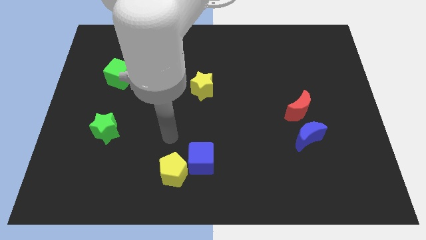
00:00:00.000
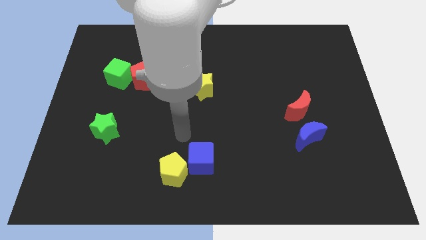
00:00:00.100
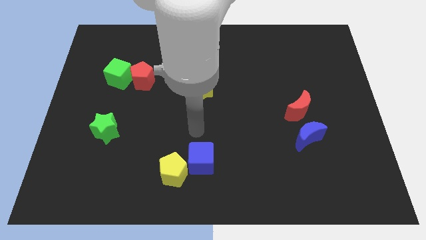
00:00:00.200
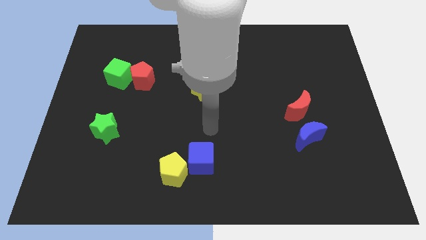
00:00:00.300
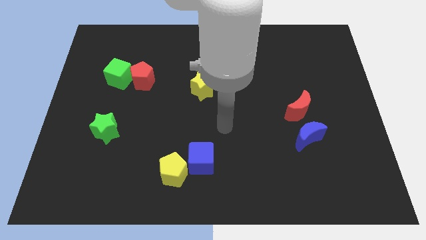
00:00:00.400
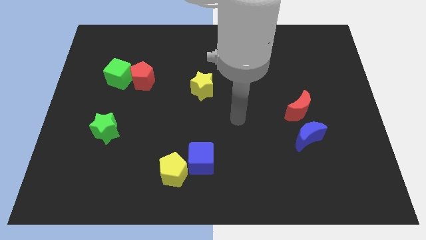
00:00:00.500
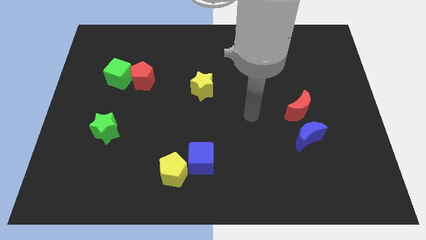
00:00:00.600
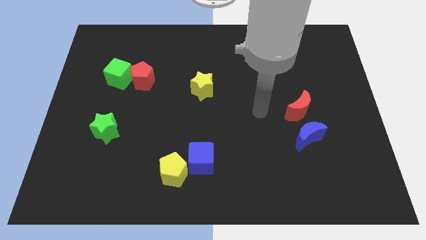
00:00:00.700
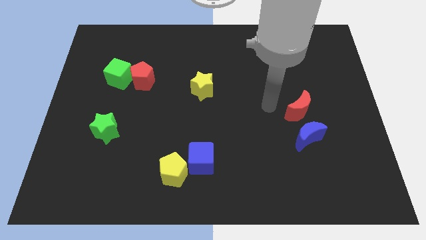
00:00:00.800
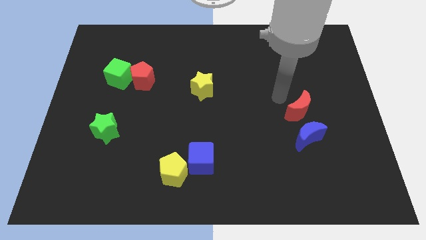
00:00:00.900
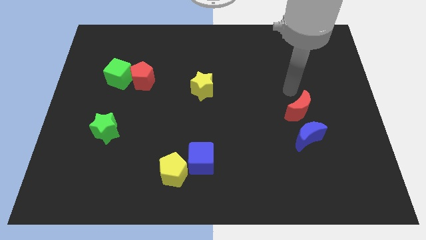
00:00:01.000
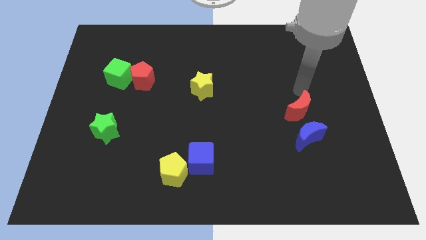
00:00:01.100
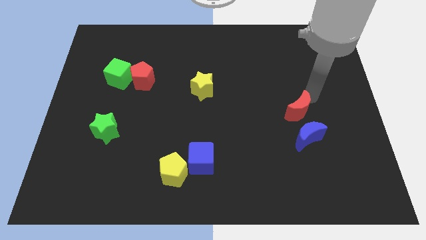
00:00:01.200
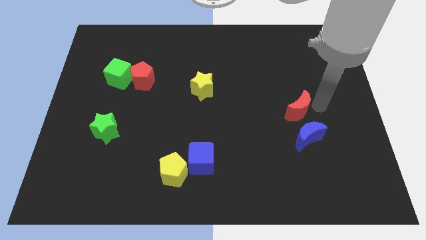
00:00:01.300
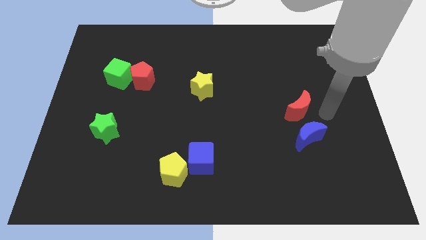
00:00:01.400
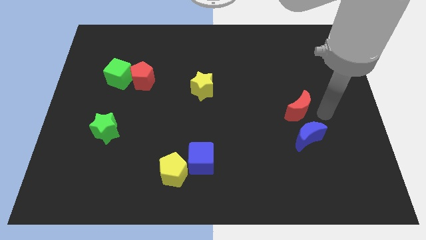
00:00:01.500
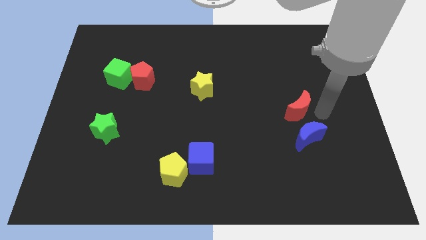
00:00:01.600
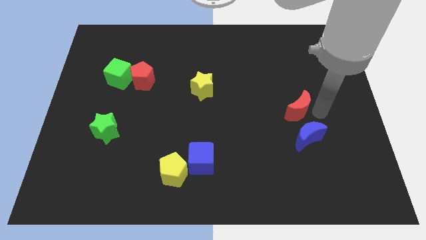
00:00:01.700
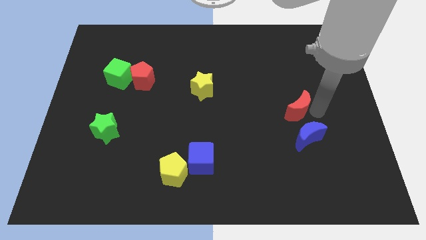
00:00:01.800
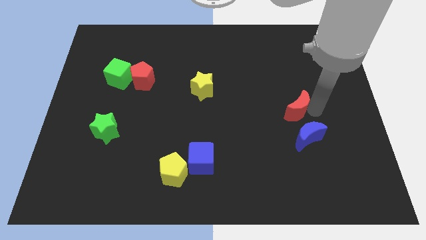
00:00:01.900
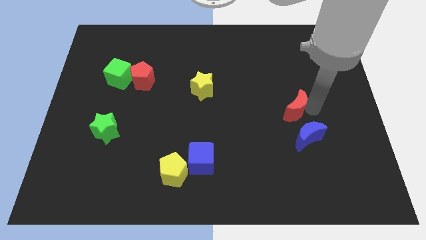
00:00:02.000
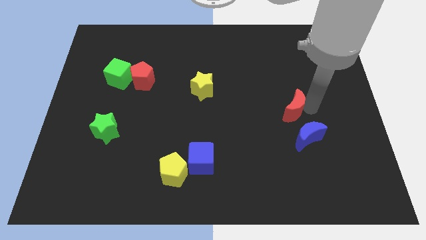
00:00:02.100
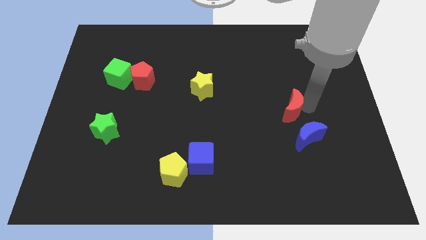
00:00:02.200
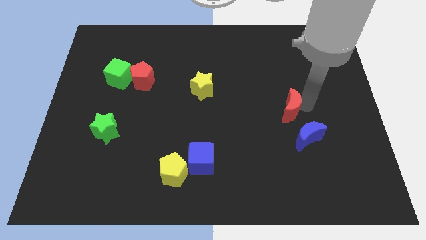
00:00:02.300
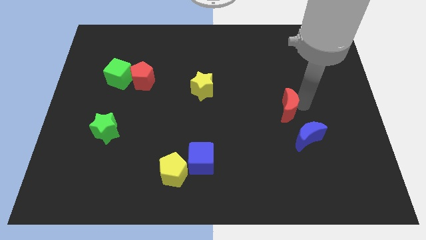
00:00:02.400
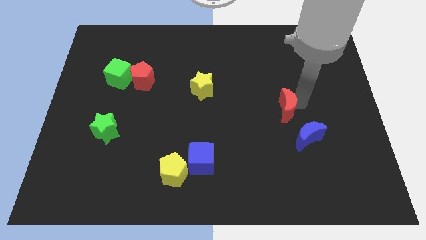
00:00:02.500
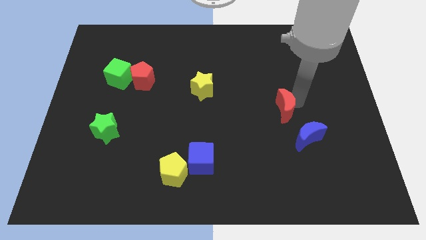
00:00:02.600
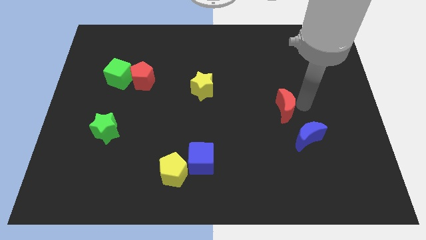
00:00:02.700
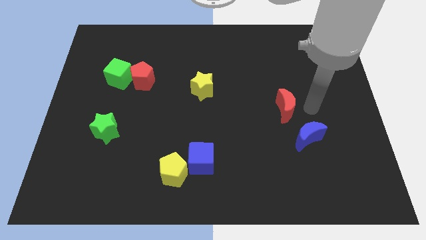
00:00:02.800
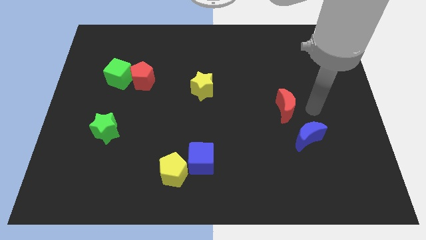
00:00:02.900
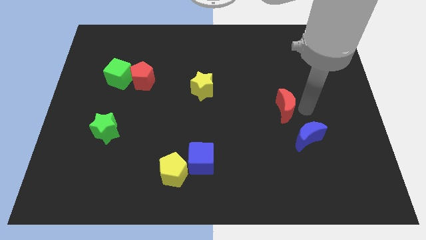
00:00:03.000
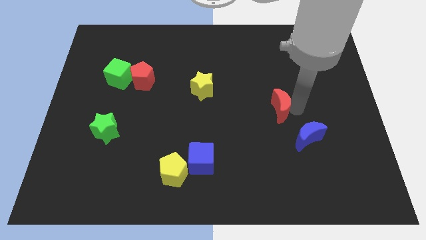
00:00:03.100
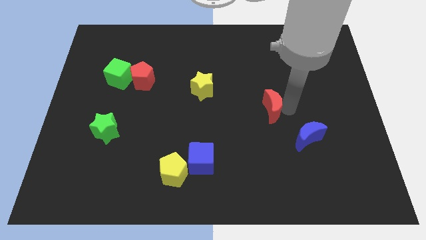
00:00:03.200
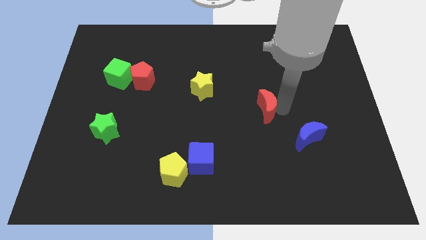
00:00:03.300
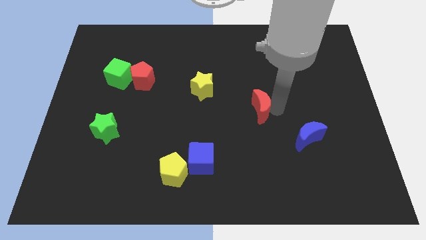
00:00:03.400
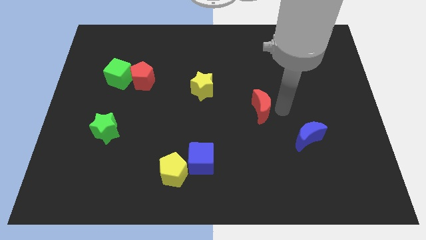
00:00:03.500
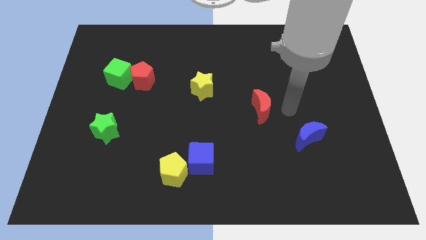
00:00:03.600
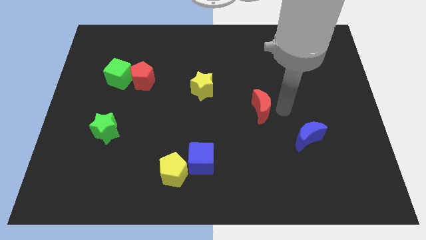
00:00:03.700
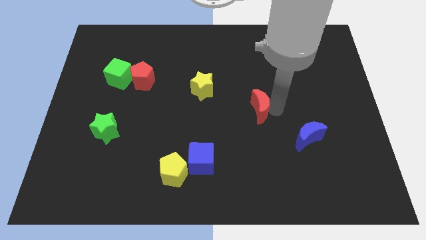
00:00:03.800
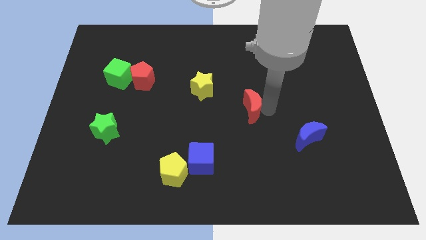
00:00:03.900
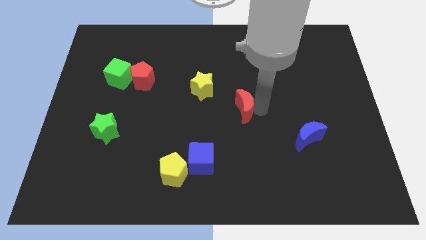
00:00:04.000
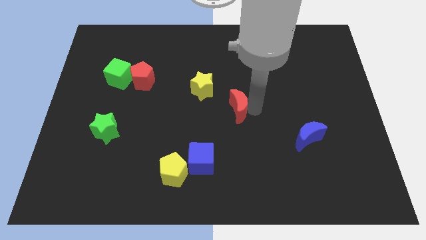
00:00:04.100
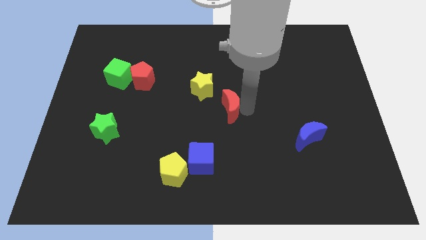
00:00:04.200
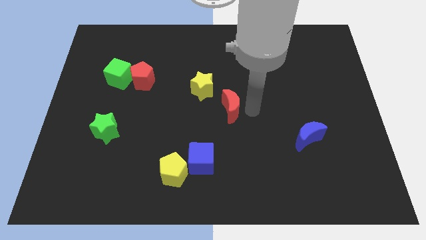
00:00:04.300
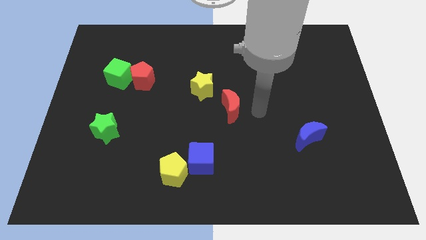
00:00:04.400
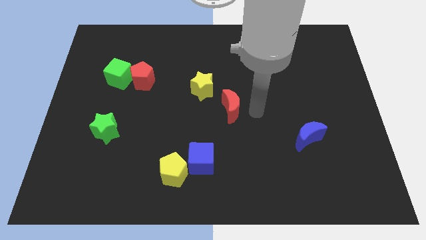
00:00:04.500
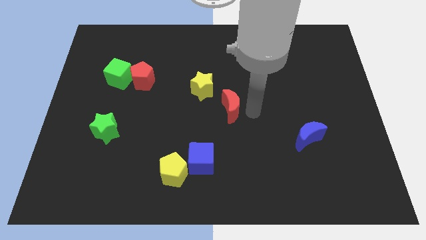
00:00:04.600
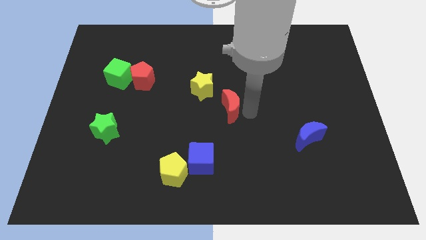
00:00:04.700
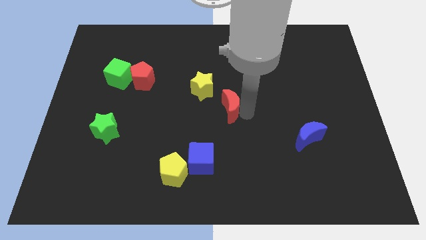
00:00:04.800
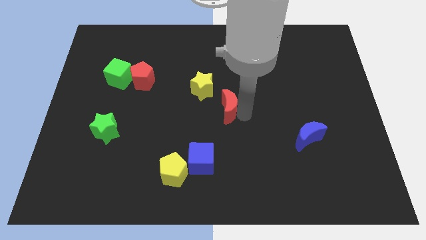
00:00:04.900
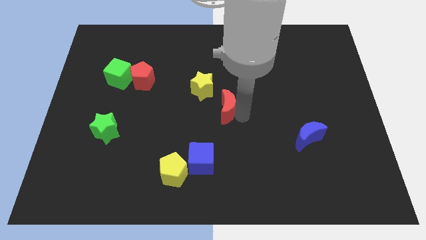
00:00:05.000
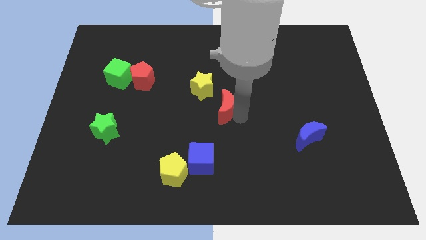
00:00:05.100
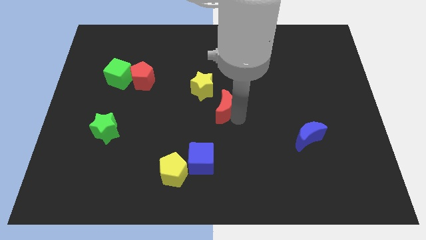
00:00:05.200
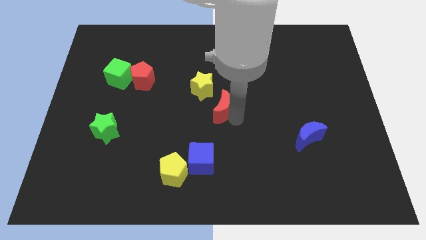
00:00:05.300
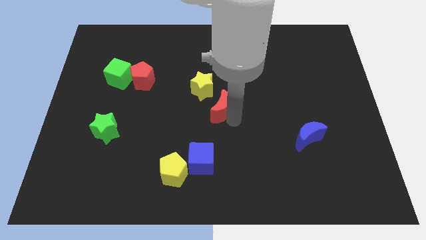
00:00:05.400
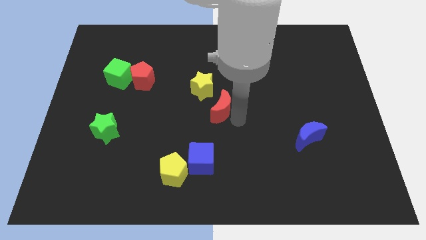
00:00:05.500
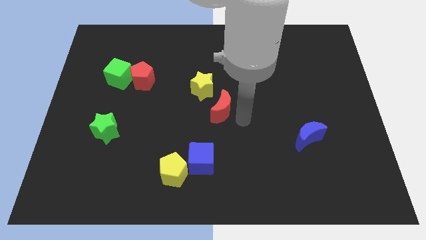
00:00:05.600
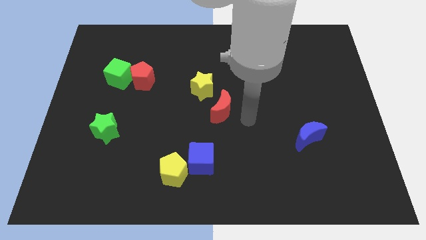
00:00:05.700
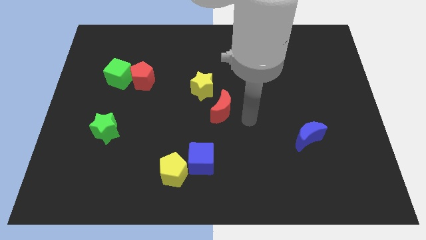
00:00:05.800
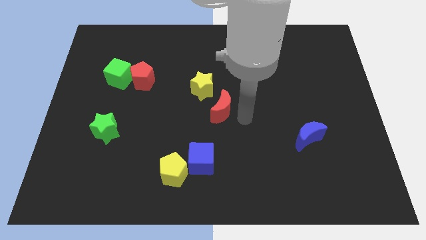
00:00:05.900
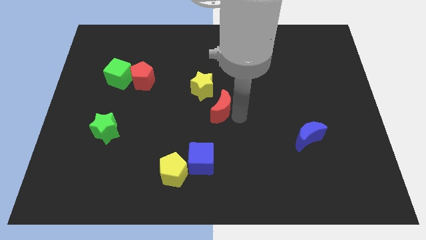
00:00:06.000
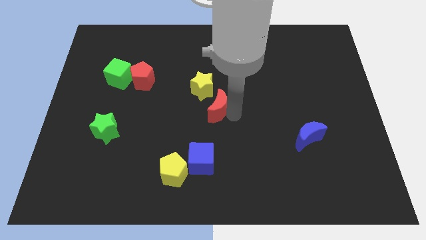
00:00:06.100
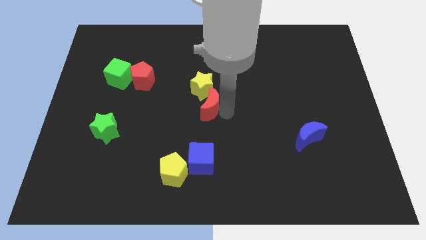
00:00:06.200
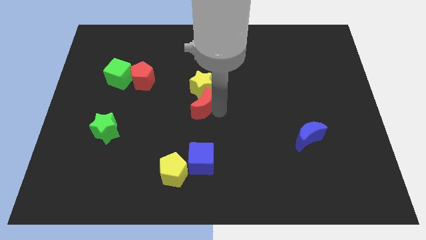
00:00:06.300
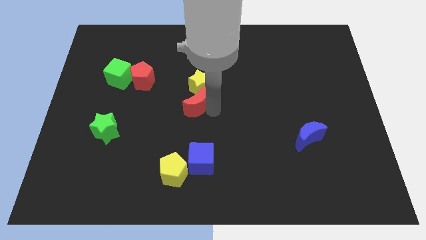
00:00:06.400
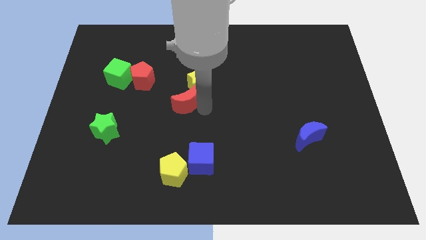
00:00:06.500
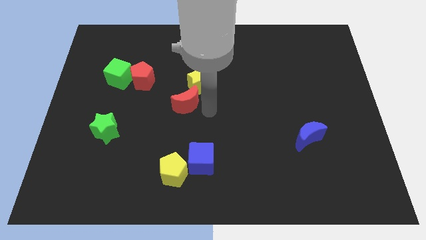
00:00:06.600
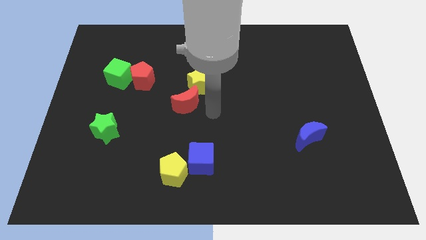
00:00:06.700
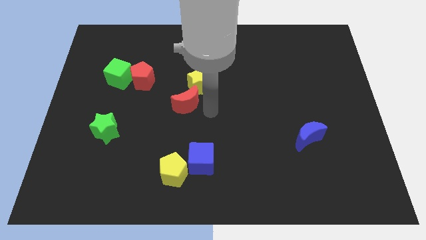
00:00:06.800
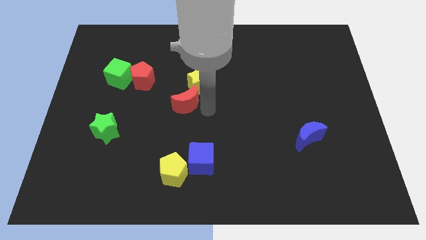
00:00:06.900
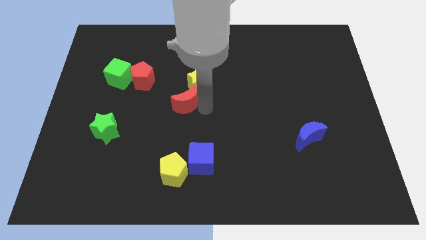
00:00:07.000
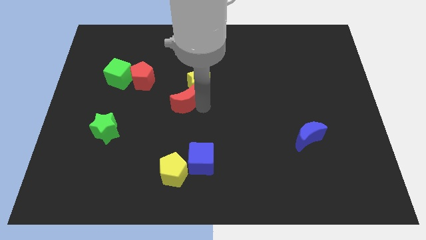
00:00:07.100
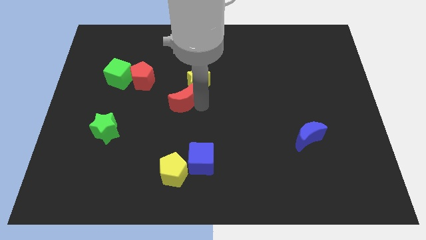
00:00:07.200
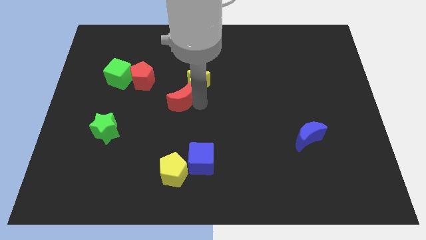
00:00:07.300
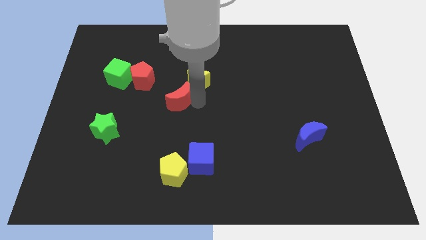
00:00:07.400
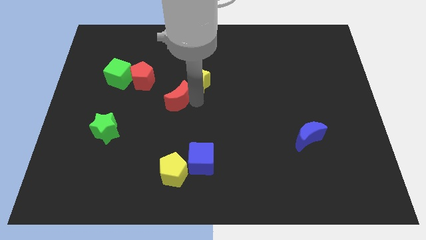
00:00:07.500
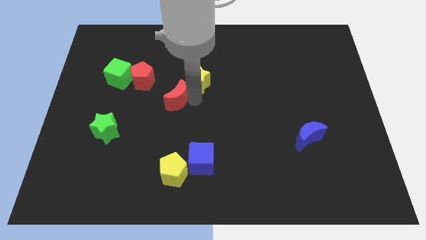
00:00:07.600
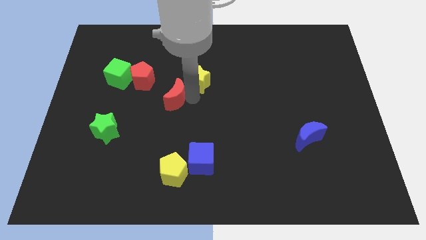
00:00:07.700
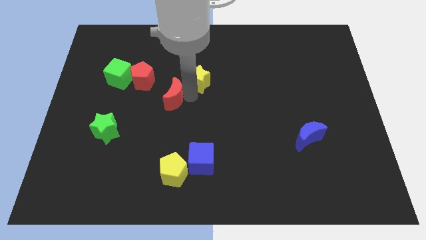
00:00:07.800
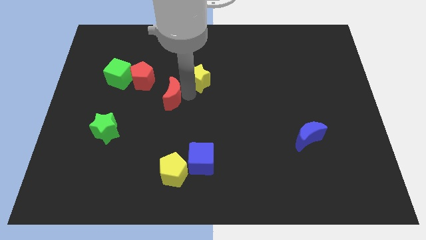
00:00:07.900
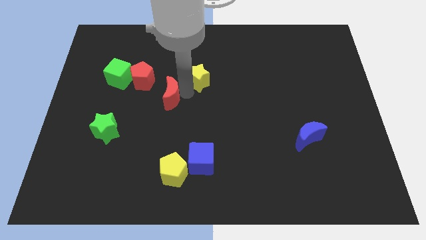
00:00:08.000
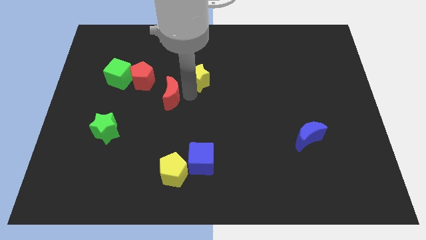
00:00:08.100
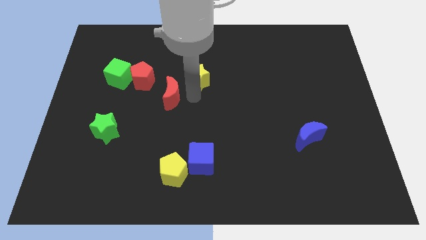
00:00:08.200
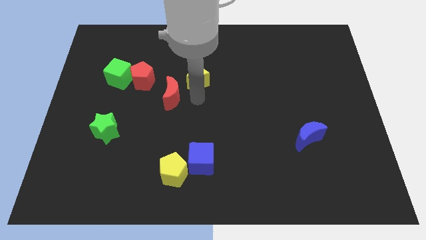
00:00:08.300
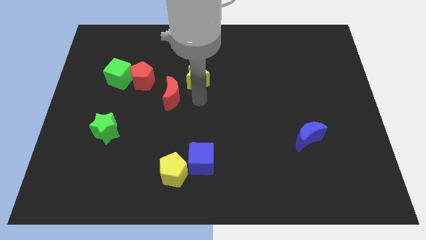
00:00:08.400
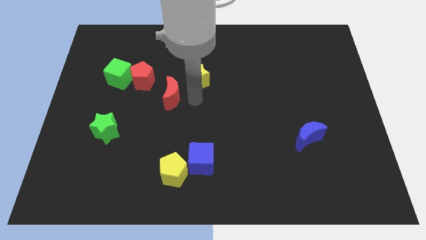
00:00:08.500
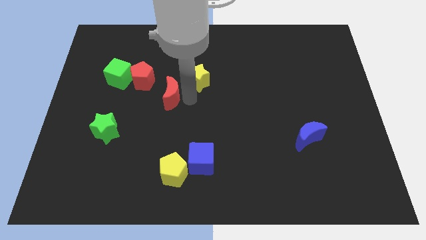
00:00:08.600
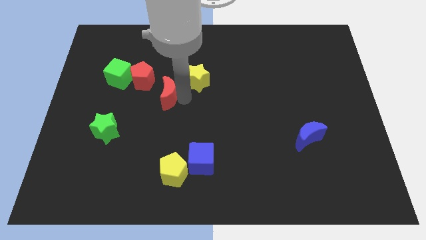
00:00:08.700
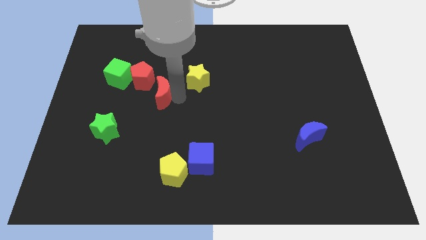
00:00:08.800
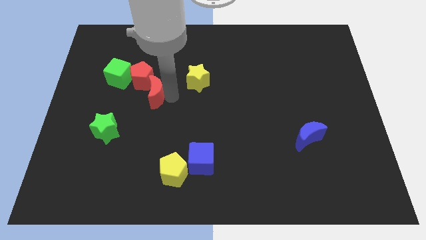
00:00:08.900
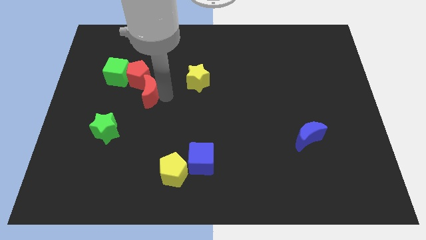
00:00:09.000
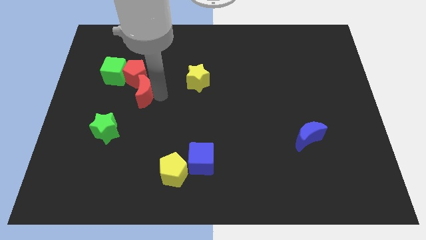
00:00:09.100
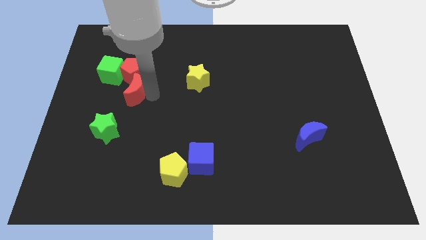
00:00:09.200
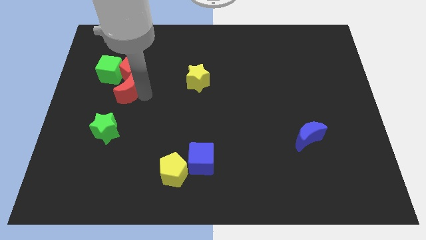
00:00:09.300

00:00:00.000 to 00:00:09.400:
push the red moon to the bottom left side of the red pentagon
